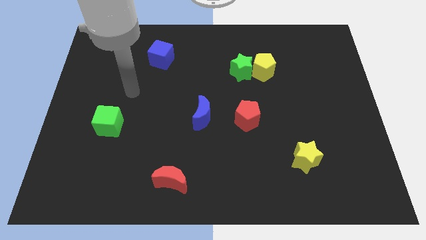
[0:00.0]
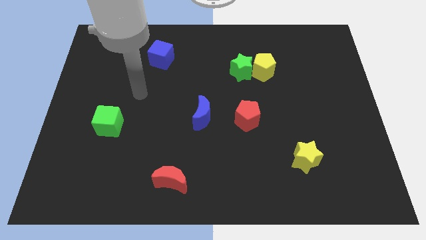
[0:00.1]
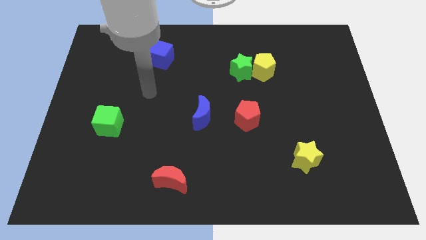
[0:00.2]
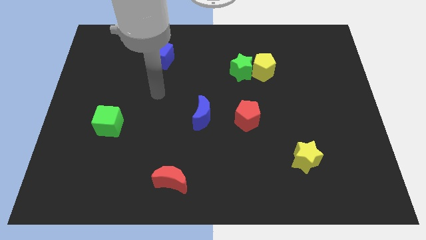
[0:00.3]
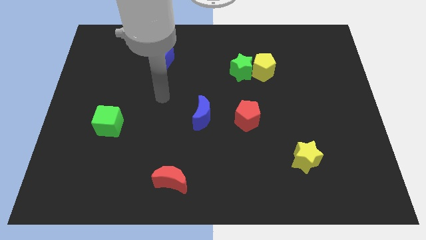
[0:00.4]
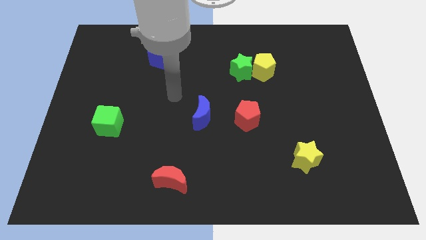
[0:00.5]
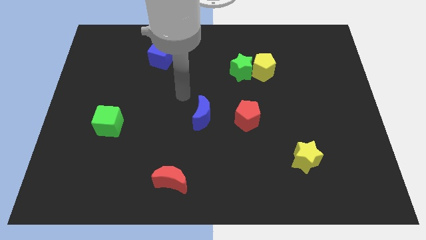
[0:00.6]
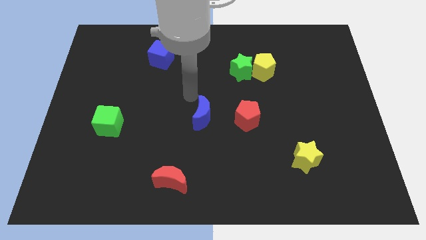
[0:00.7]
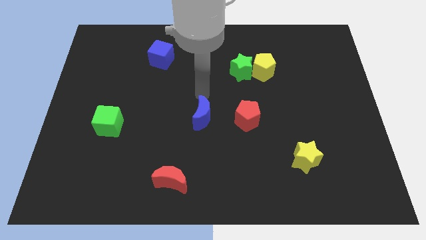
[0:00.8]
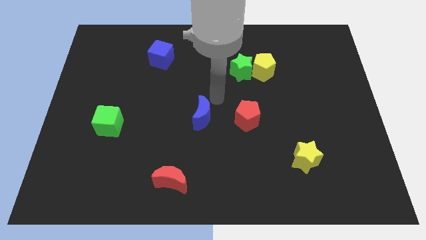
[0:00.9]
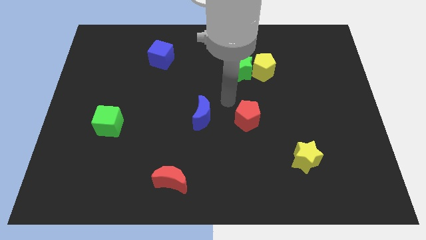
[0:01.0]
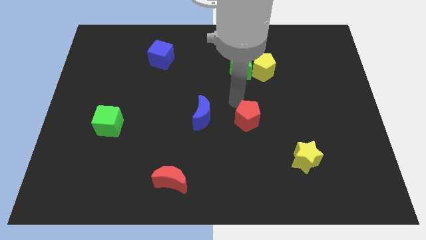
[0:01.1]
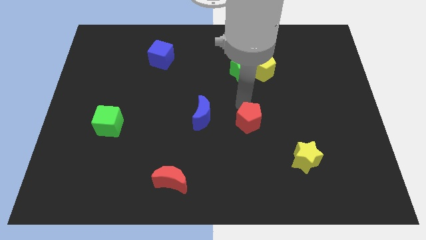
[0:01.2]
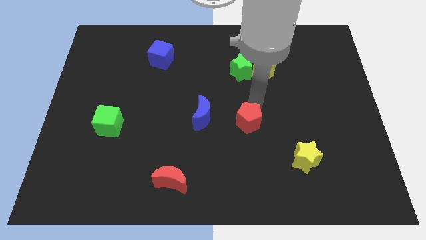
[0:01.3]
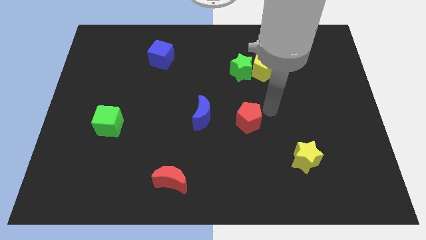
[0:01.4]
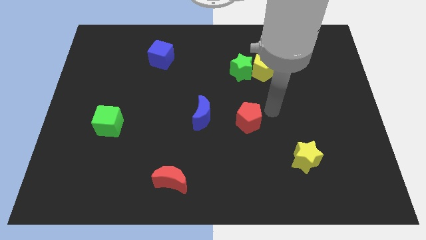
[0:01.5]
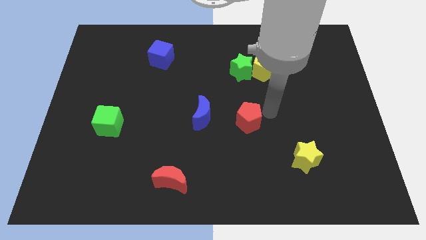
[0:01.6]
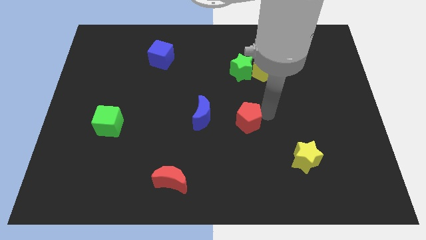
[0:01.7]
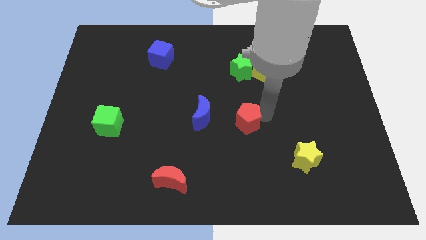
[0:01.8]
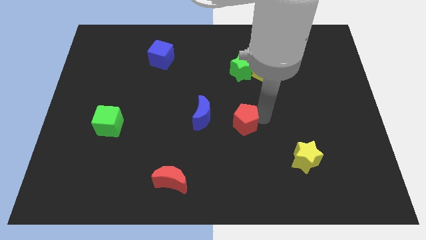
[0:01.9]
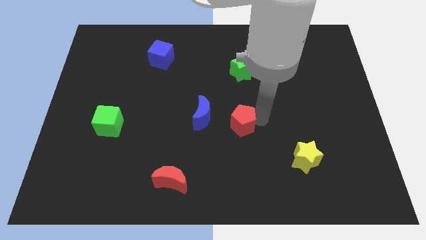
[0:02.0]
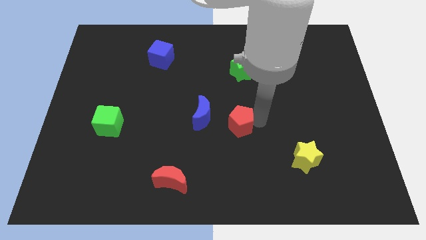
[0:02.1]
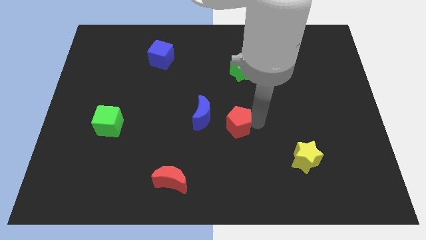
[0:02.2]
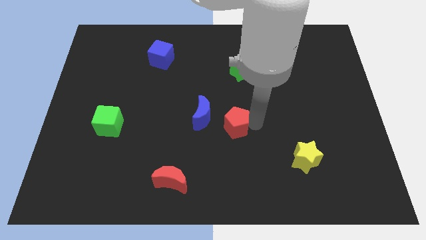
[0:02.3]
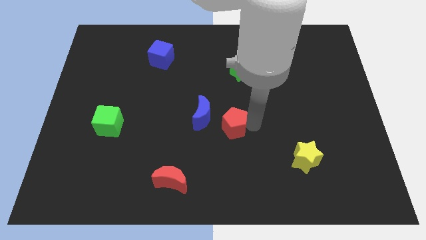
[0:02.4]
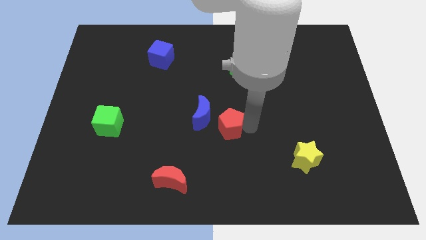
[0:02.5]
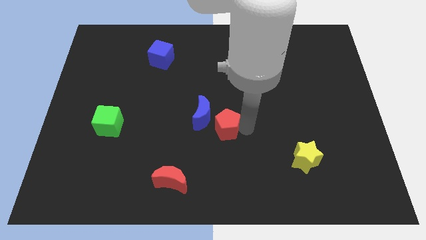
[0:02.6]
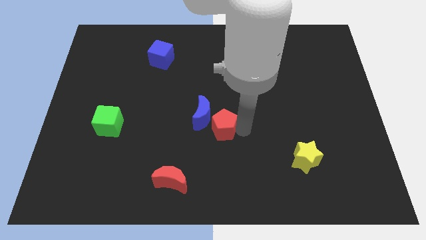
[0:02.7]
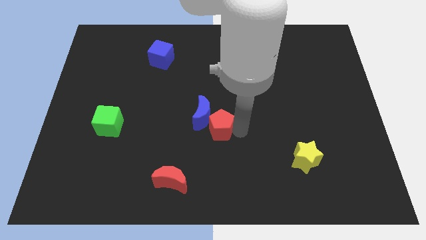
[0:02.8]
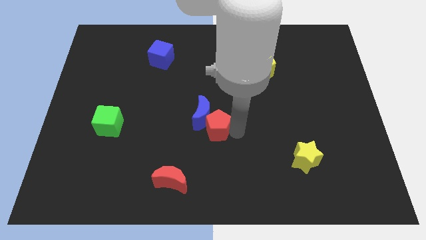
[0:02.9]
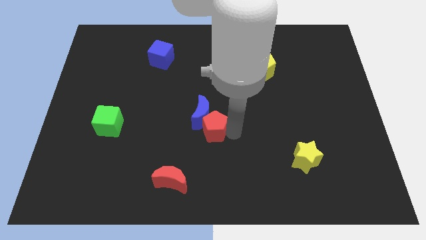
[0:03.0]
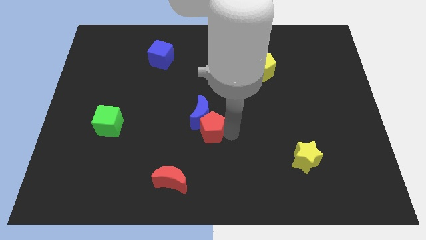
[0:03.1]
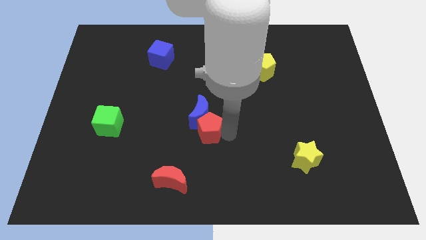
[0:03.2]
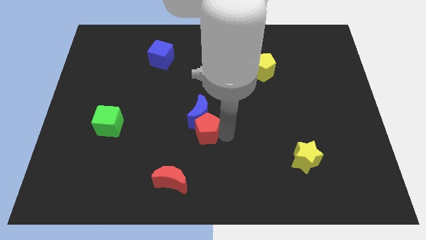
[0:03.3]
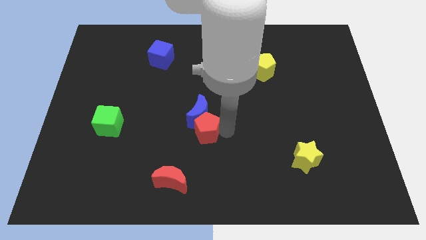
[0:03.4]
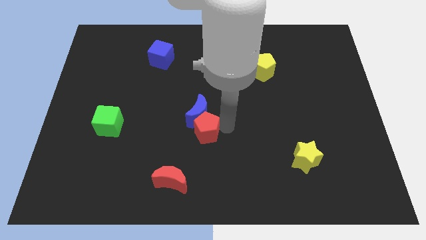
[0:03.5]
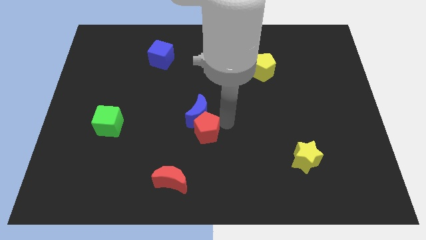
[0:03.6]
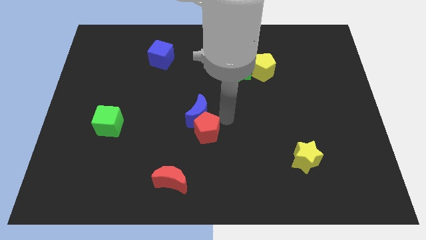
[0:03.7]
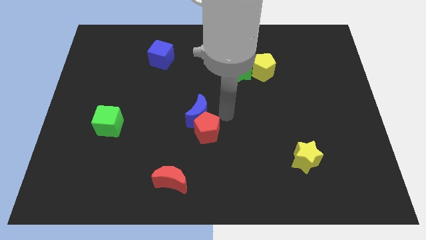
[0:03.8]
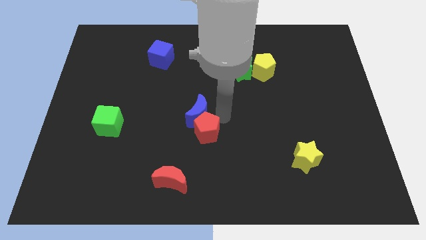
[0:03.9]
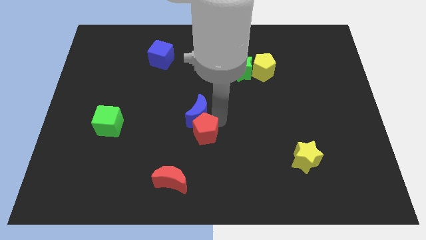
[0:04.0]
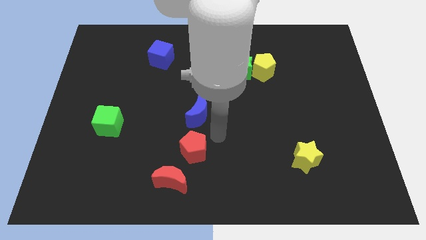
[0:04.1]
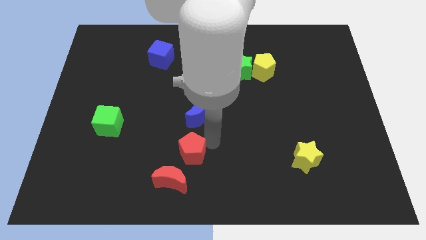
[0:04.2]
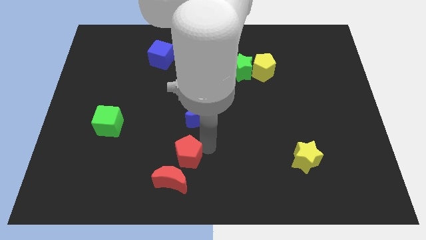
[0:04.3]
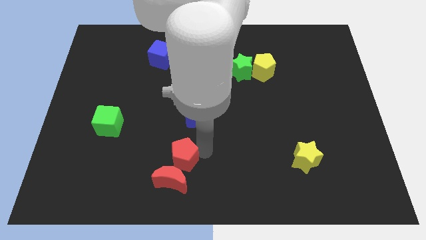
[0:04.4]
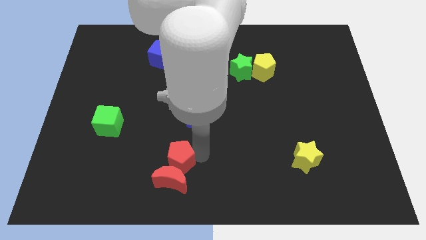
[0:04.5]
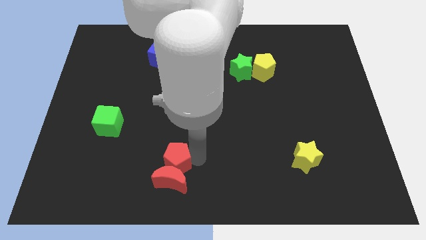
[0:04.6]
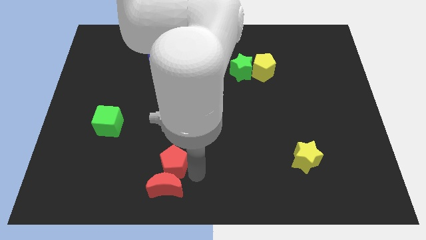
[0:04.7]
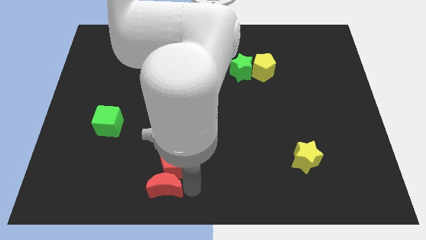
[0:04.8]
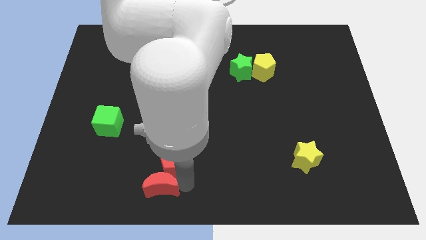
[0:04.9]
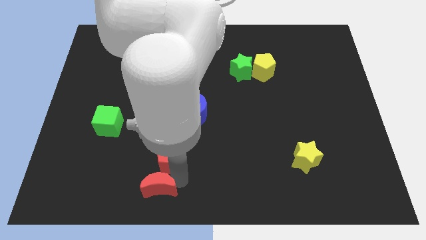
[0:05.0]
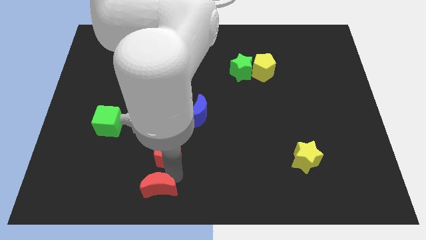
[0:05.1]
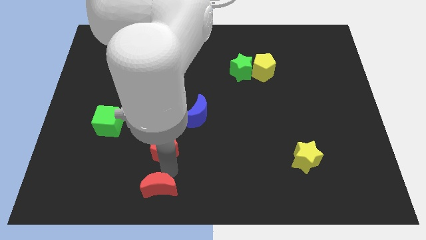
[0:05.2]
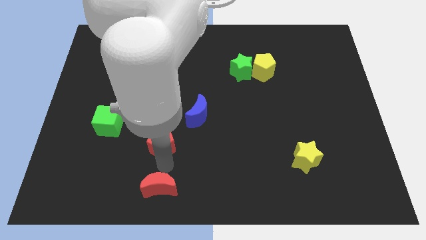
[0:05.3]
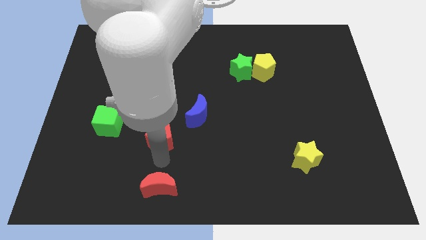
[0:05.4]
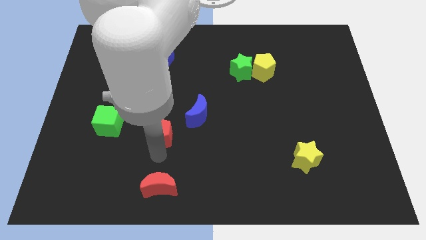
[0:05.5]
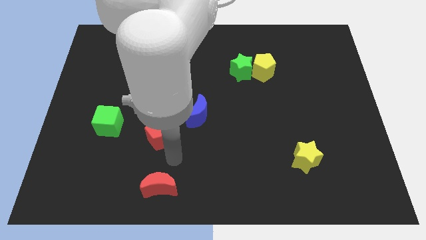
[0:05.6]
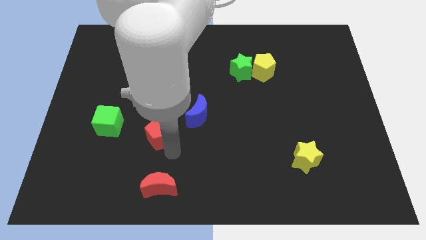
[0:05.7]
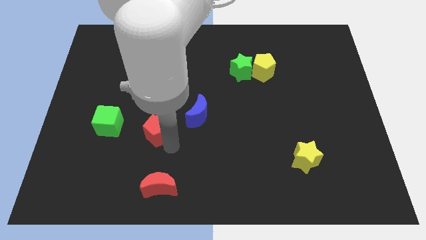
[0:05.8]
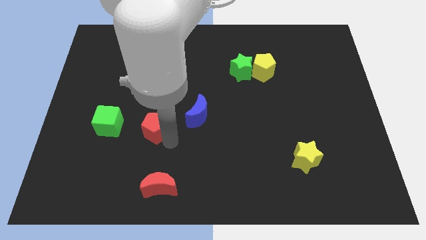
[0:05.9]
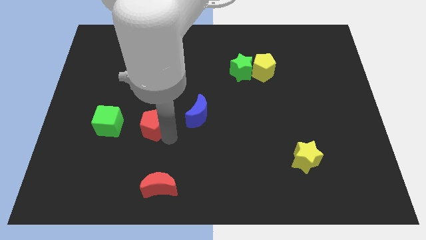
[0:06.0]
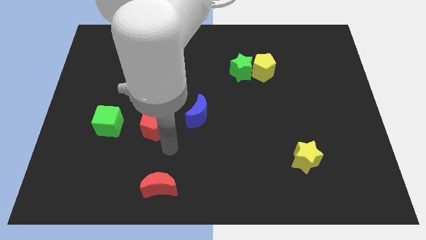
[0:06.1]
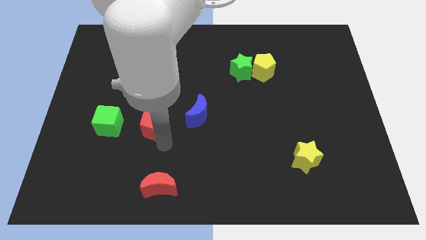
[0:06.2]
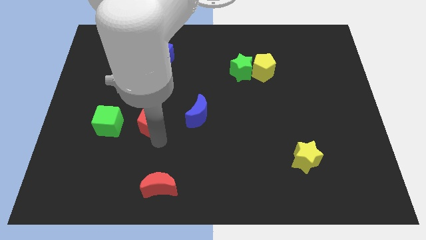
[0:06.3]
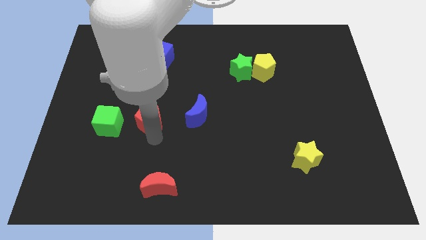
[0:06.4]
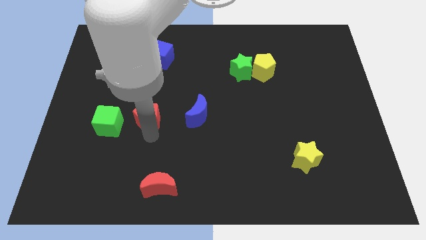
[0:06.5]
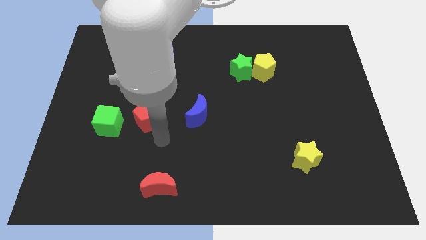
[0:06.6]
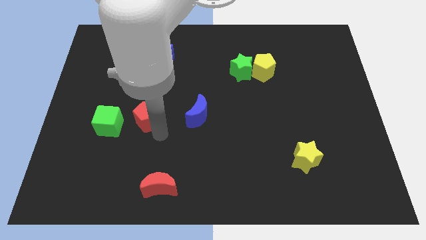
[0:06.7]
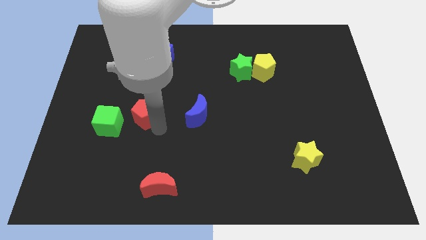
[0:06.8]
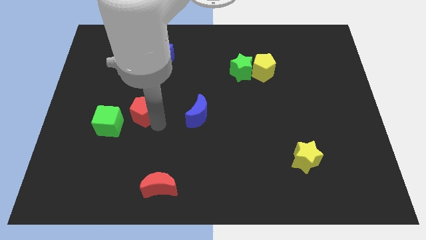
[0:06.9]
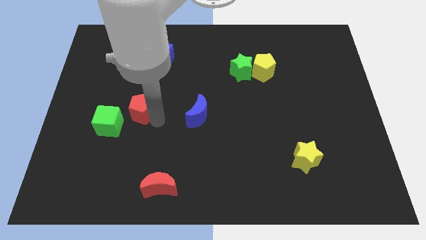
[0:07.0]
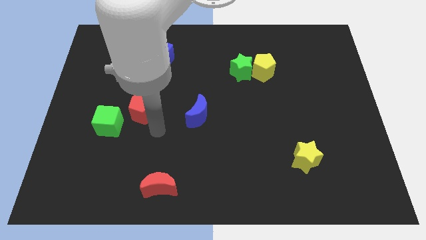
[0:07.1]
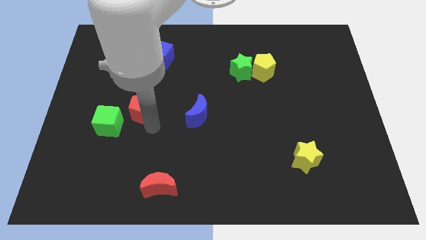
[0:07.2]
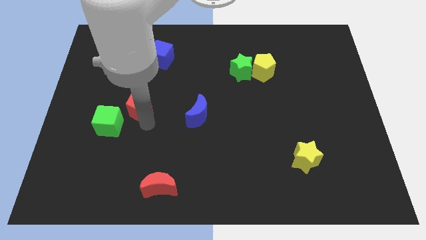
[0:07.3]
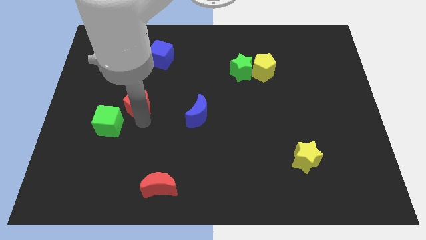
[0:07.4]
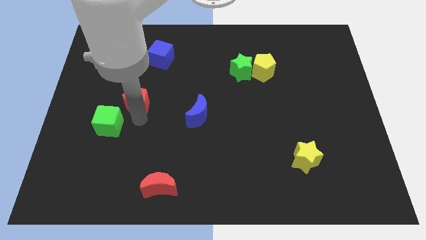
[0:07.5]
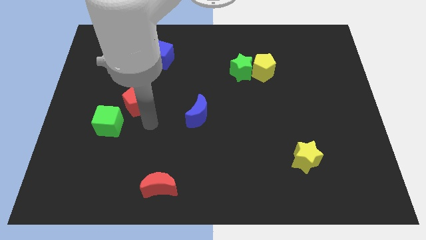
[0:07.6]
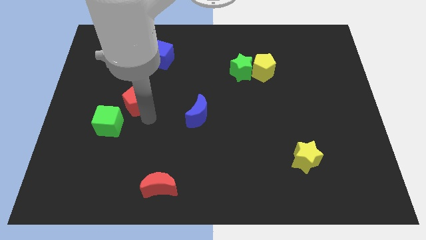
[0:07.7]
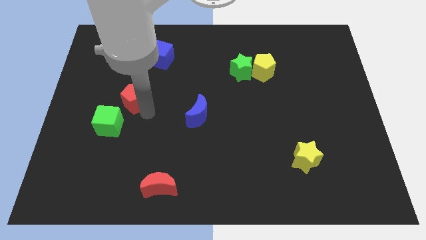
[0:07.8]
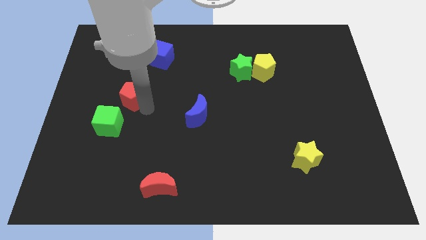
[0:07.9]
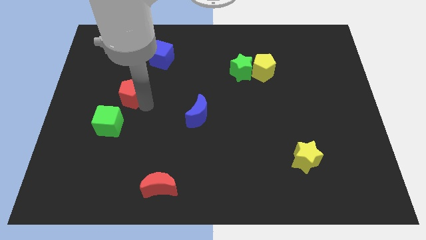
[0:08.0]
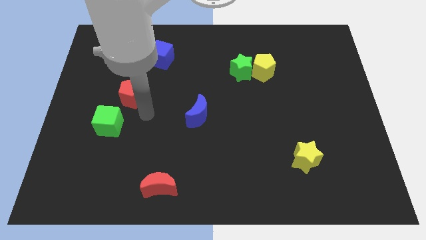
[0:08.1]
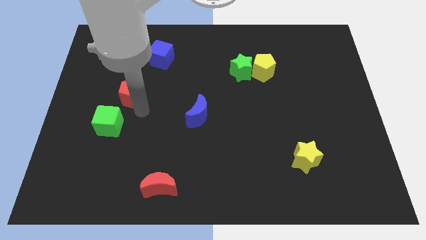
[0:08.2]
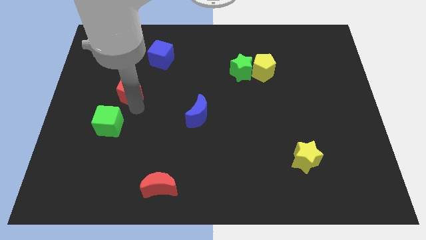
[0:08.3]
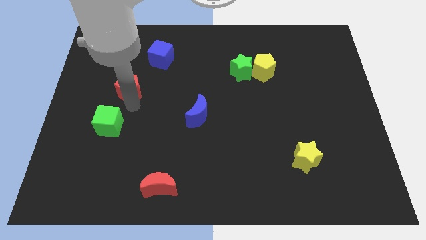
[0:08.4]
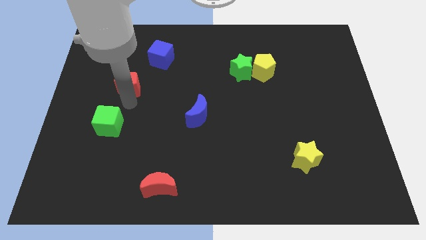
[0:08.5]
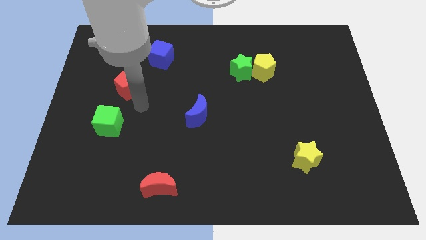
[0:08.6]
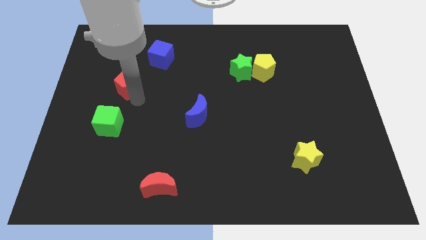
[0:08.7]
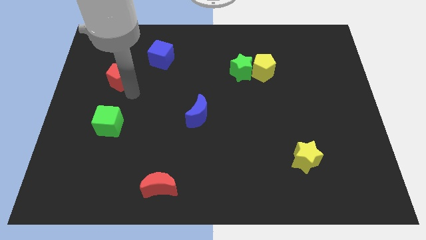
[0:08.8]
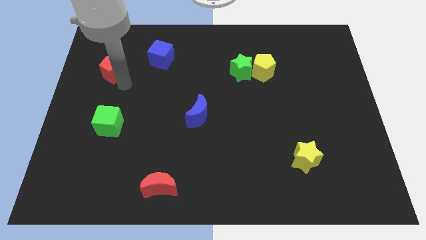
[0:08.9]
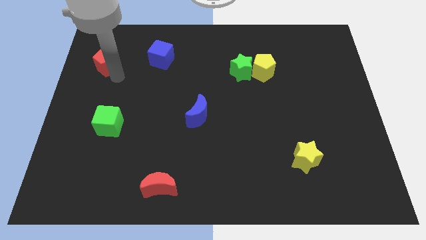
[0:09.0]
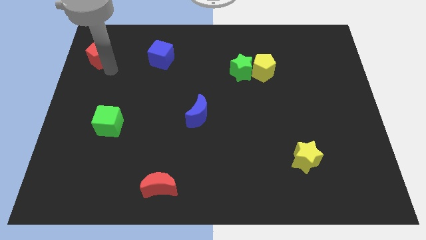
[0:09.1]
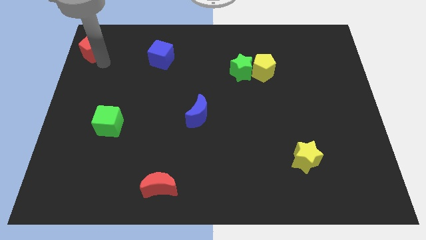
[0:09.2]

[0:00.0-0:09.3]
put the red pentagon to the top left
